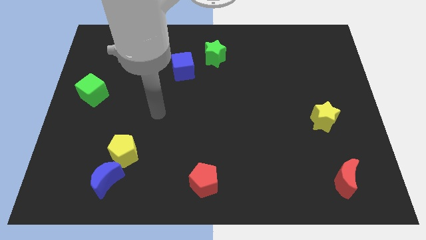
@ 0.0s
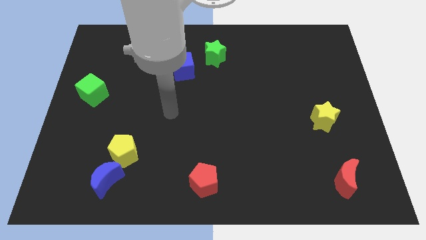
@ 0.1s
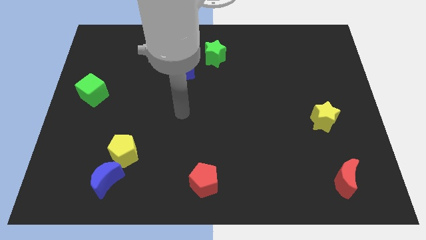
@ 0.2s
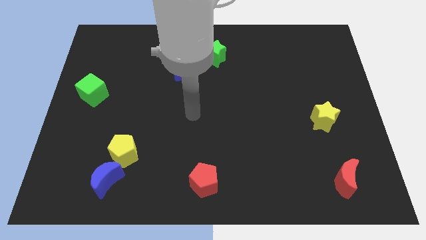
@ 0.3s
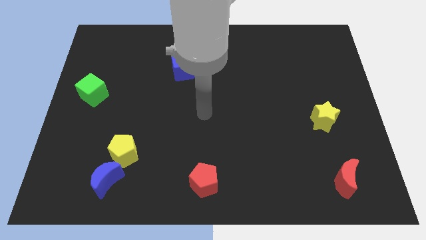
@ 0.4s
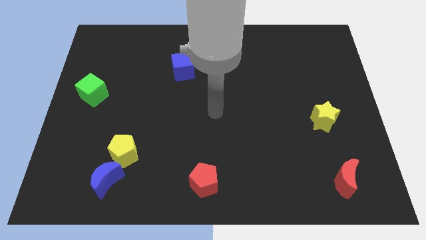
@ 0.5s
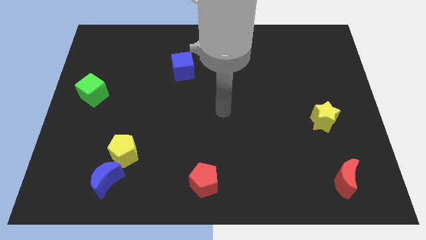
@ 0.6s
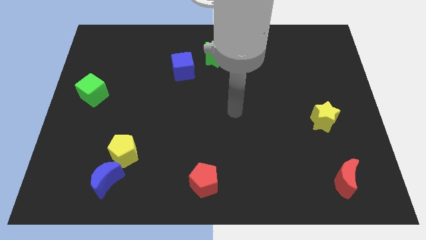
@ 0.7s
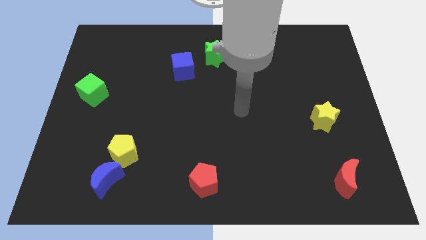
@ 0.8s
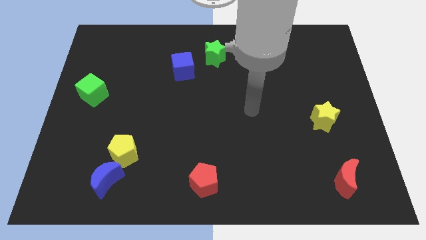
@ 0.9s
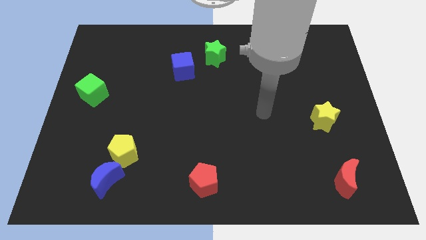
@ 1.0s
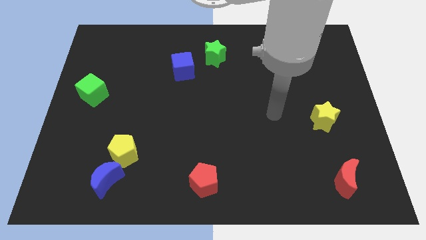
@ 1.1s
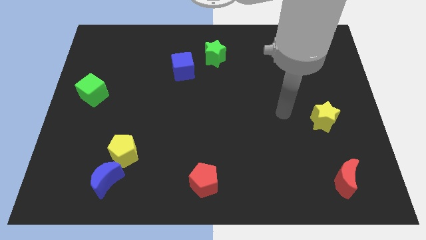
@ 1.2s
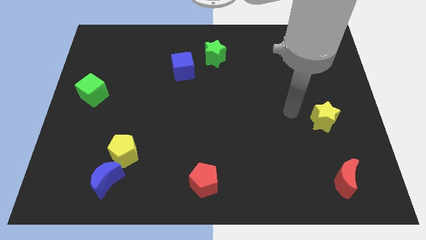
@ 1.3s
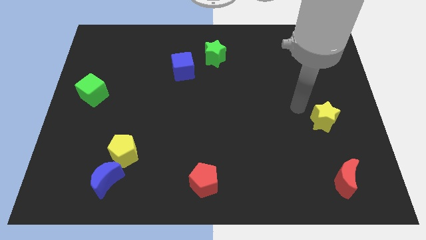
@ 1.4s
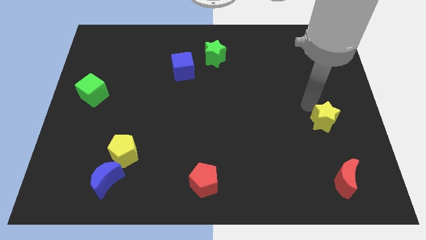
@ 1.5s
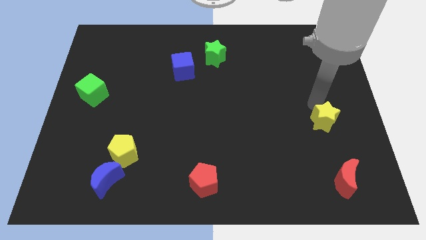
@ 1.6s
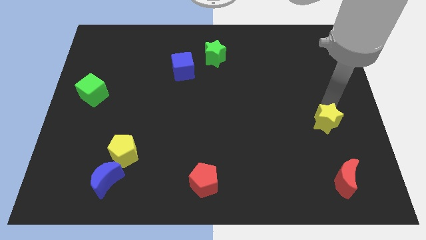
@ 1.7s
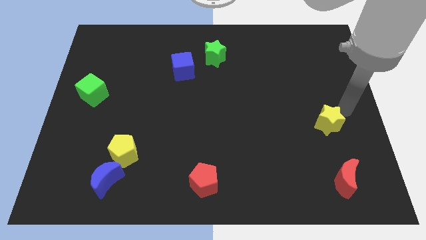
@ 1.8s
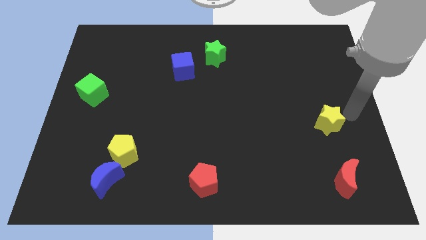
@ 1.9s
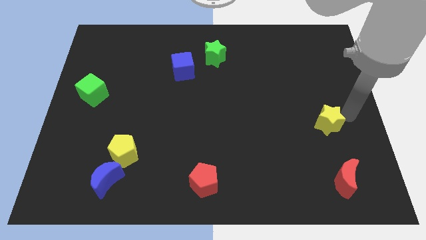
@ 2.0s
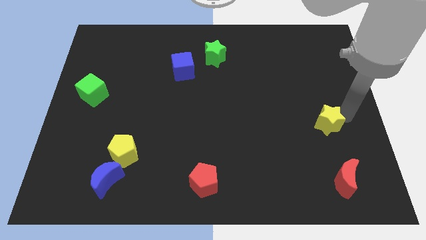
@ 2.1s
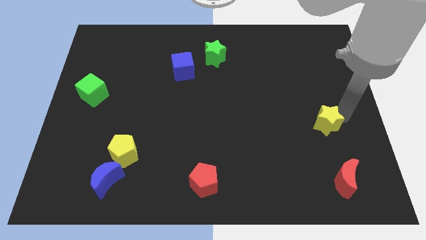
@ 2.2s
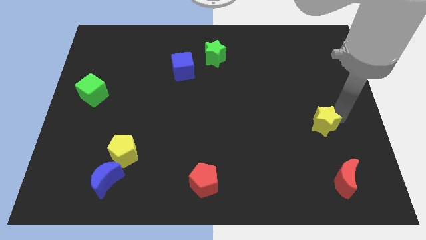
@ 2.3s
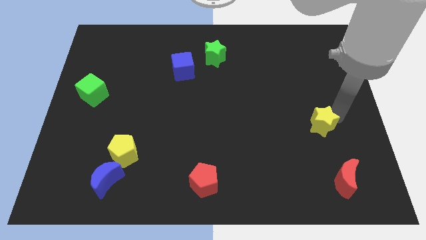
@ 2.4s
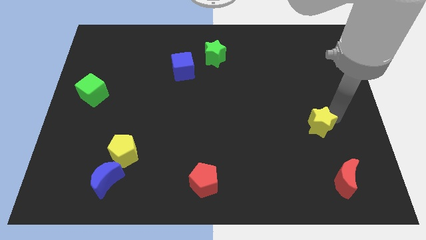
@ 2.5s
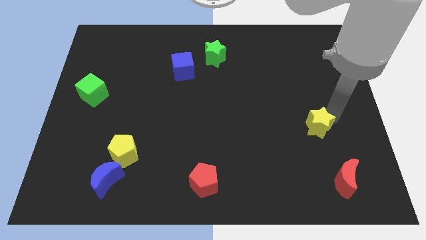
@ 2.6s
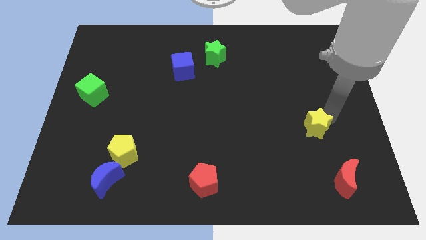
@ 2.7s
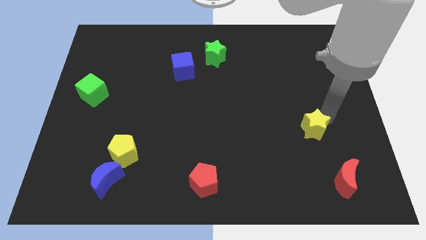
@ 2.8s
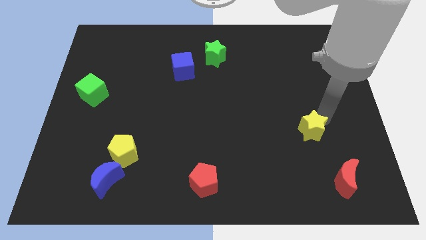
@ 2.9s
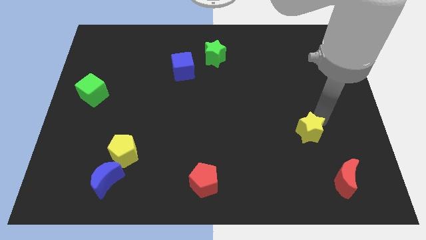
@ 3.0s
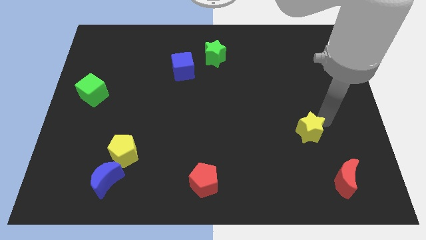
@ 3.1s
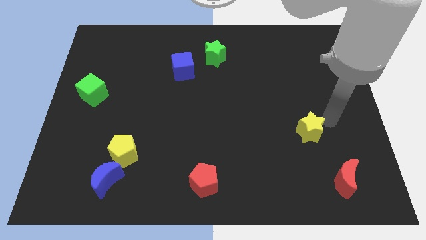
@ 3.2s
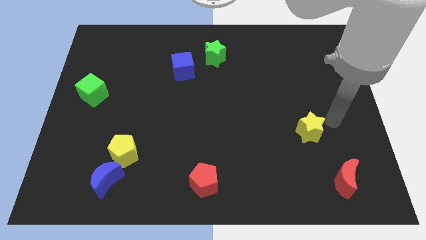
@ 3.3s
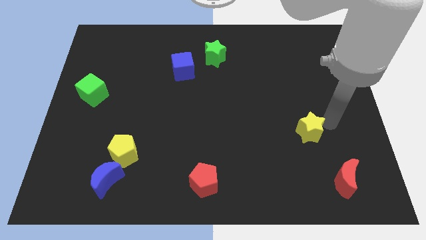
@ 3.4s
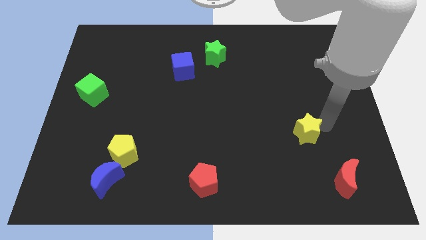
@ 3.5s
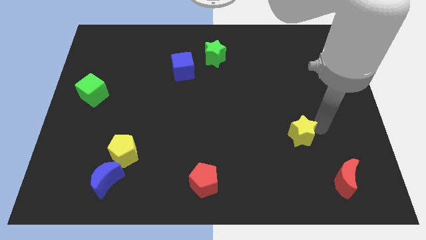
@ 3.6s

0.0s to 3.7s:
push the yellow star a little downwards and left

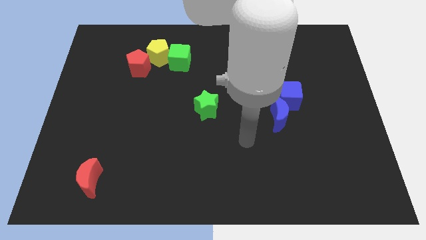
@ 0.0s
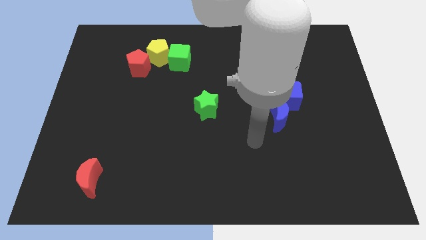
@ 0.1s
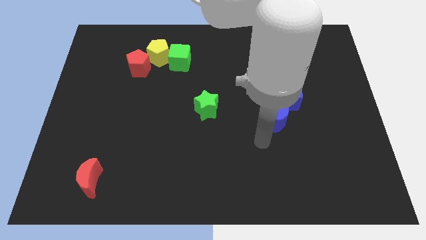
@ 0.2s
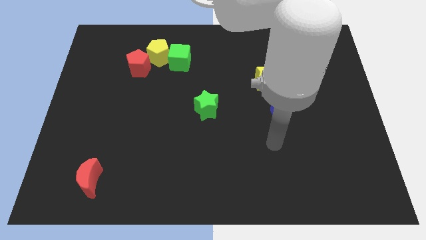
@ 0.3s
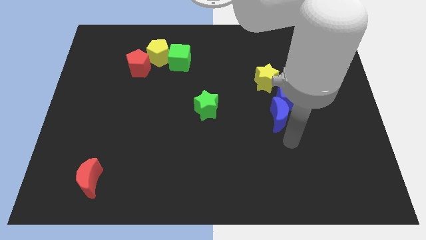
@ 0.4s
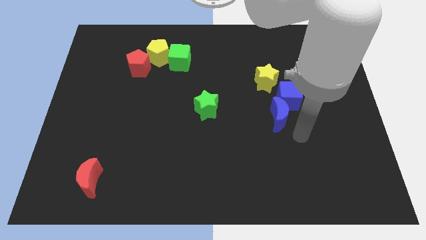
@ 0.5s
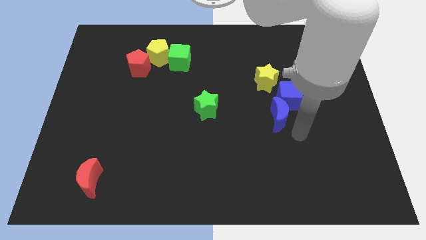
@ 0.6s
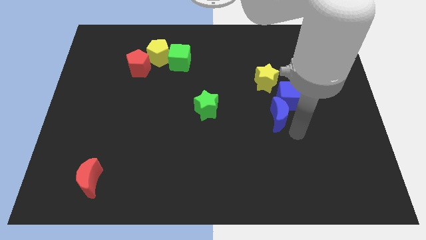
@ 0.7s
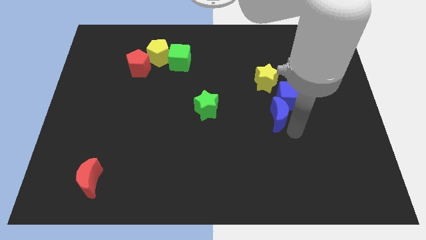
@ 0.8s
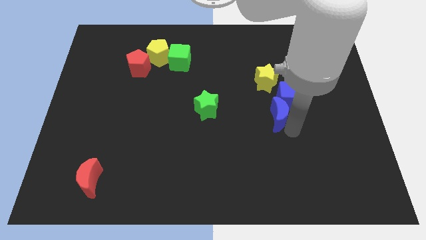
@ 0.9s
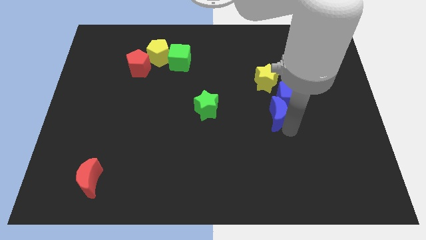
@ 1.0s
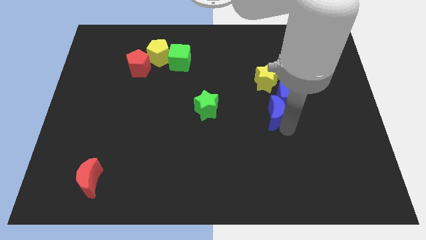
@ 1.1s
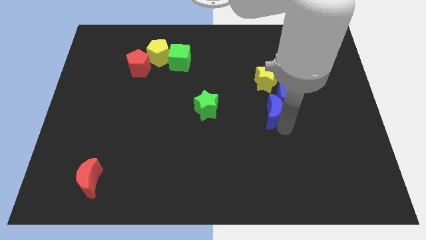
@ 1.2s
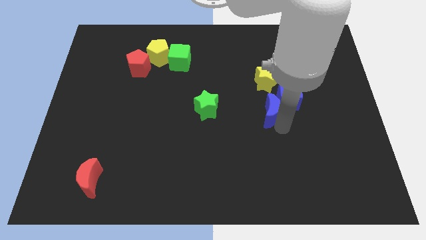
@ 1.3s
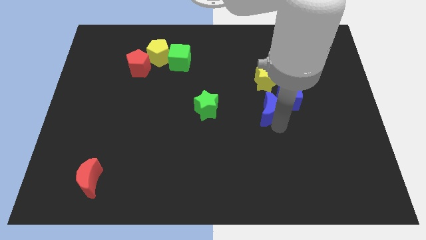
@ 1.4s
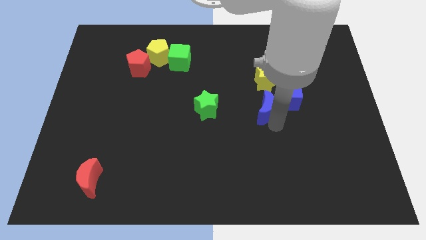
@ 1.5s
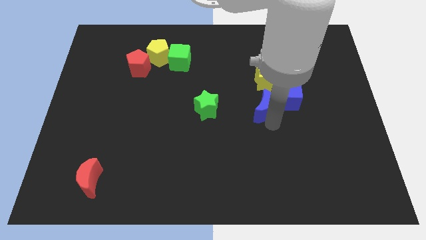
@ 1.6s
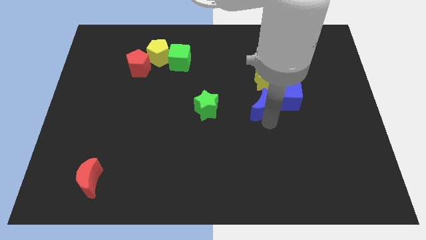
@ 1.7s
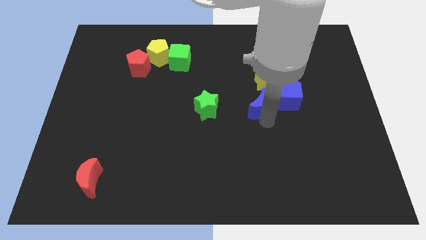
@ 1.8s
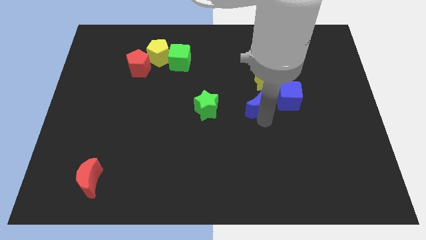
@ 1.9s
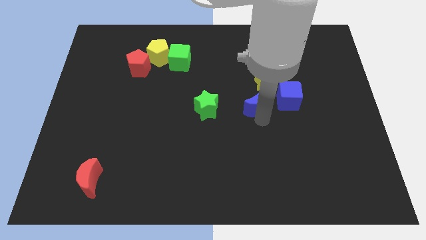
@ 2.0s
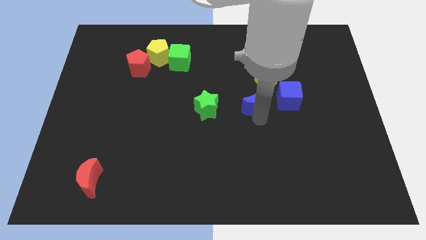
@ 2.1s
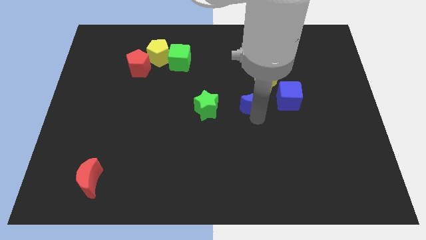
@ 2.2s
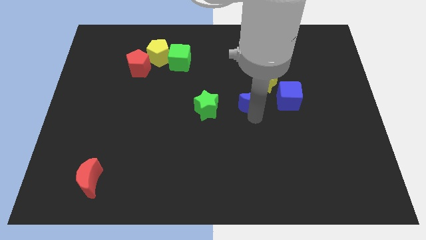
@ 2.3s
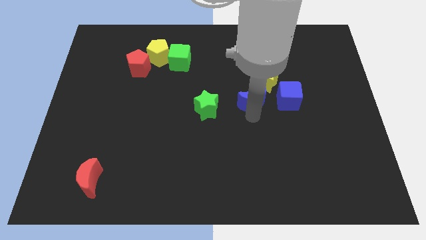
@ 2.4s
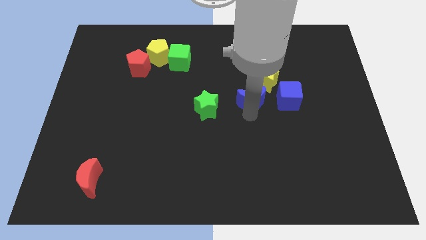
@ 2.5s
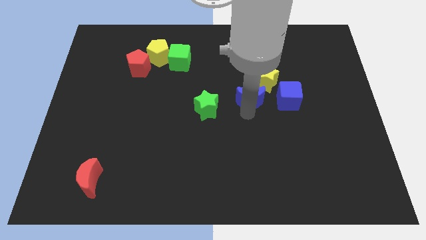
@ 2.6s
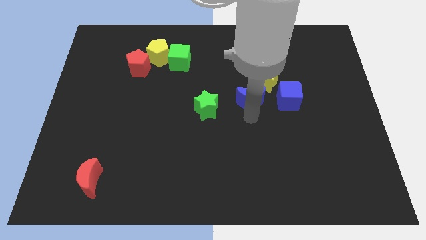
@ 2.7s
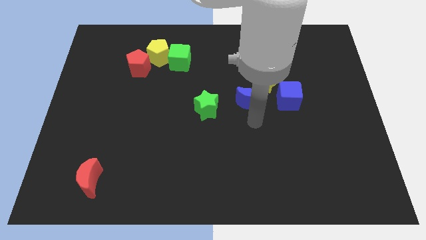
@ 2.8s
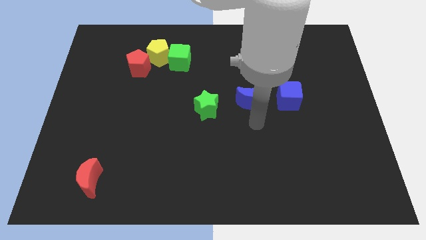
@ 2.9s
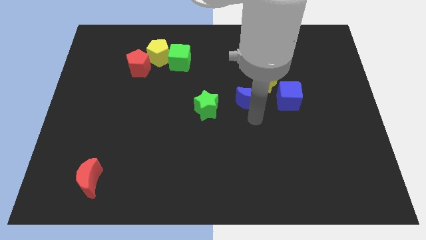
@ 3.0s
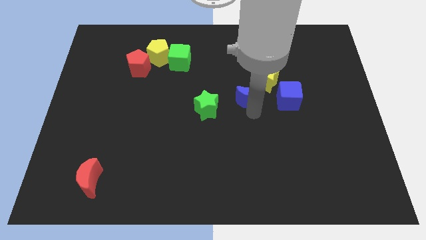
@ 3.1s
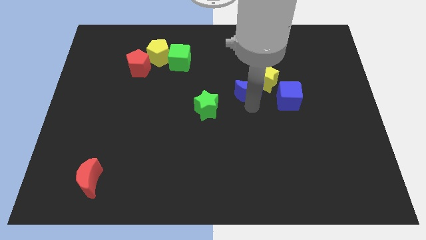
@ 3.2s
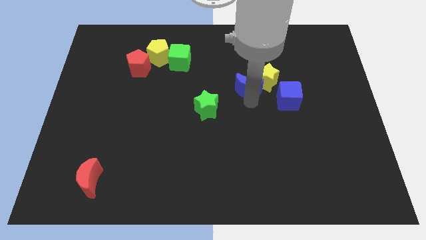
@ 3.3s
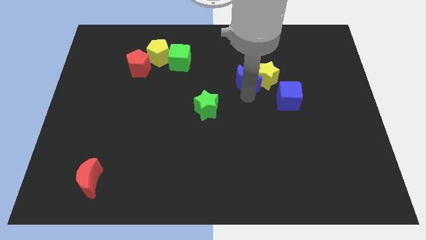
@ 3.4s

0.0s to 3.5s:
slide the blue moon a bit upwards

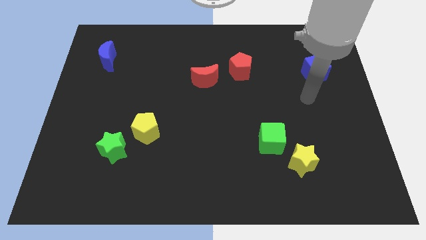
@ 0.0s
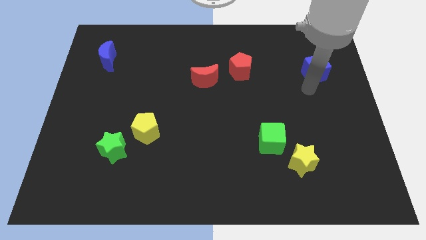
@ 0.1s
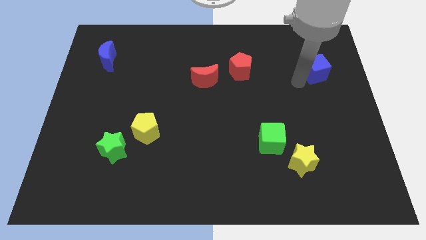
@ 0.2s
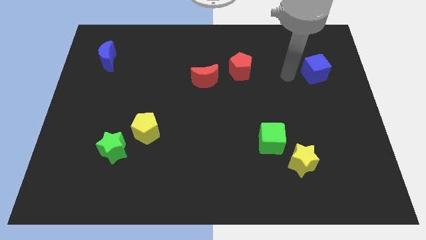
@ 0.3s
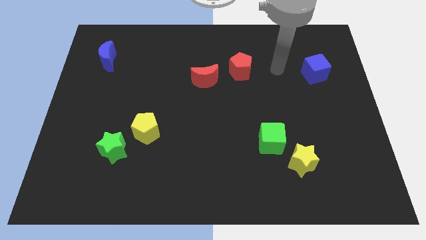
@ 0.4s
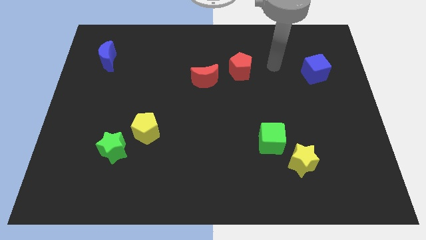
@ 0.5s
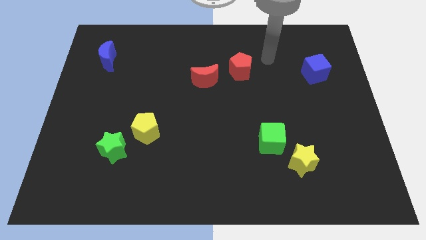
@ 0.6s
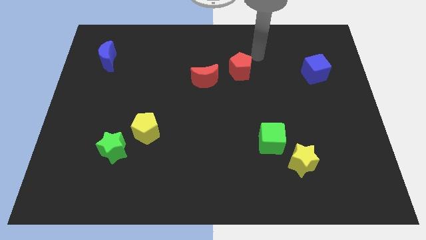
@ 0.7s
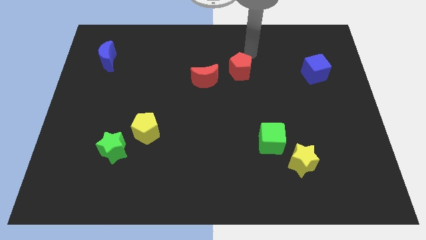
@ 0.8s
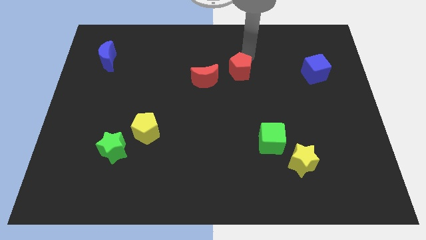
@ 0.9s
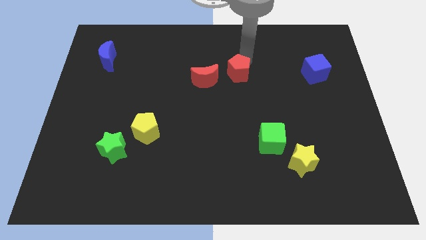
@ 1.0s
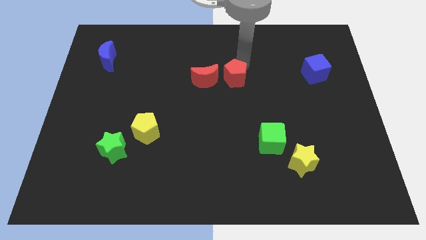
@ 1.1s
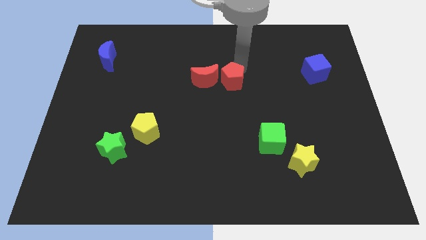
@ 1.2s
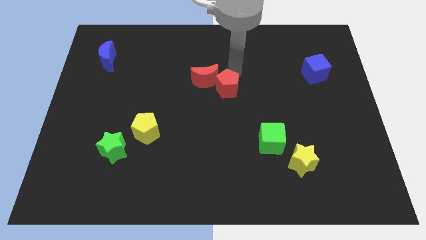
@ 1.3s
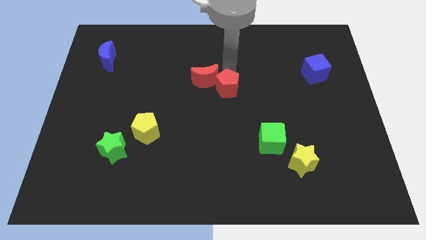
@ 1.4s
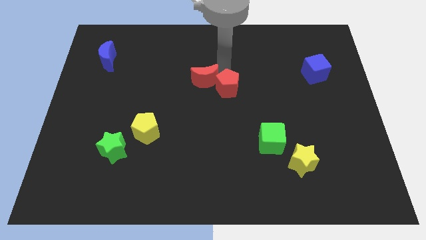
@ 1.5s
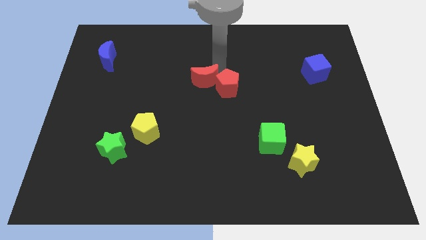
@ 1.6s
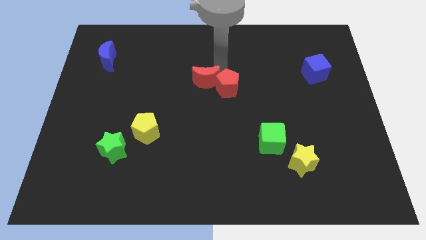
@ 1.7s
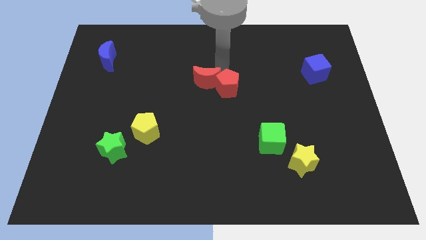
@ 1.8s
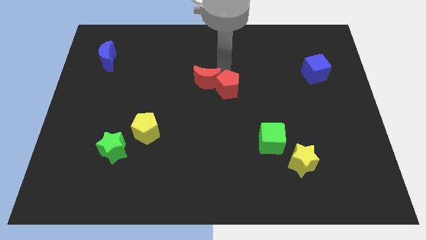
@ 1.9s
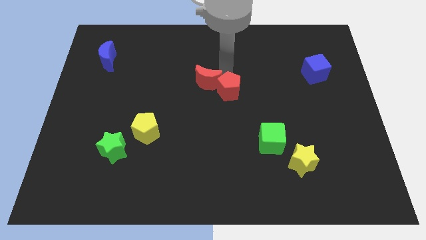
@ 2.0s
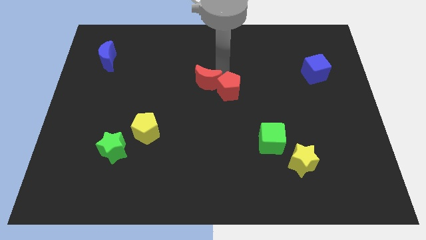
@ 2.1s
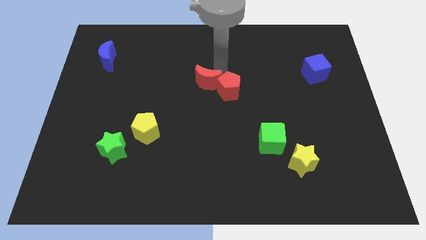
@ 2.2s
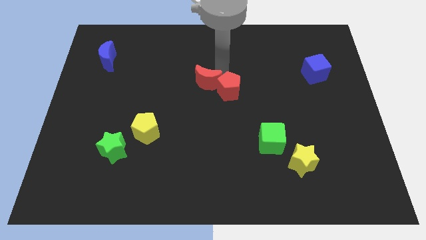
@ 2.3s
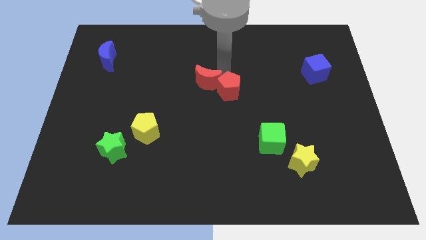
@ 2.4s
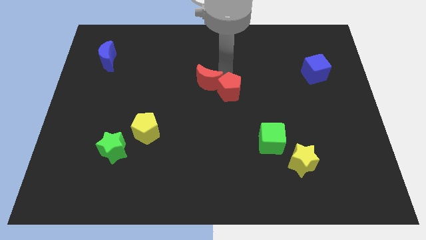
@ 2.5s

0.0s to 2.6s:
push the red pentagon slightly downwards
